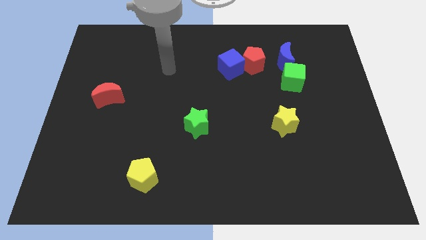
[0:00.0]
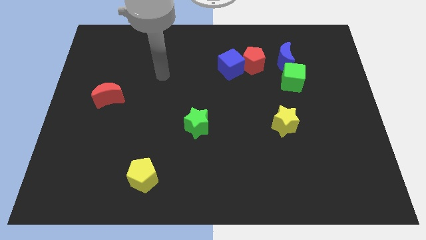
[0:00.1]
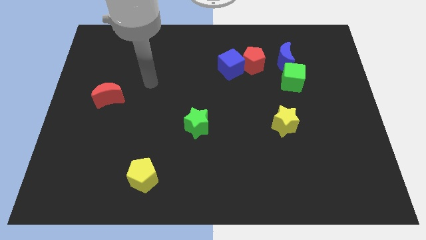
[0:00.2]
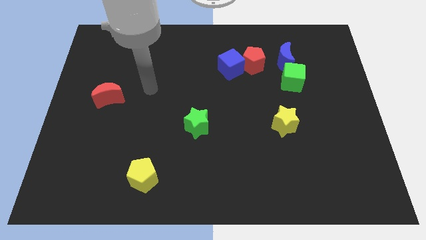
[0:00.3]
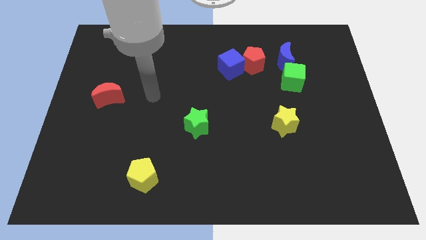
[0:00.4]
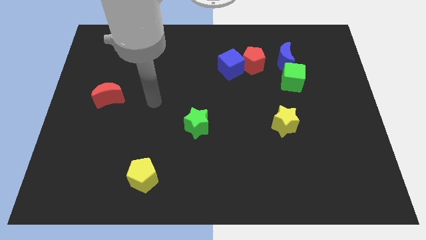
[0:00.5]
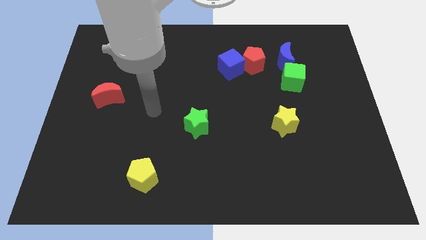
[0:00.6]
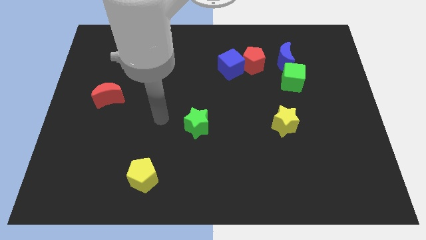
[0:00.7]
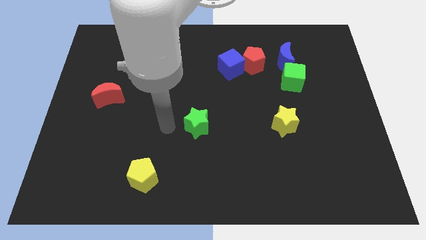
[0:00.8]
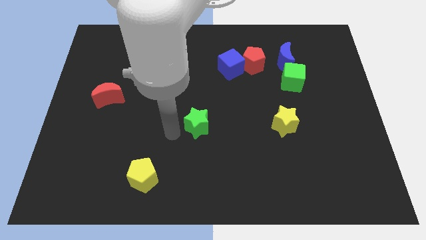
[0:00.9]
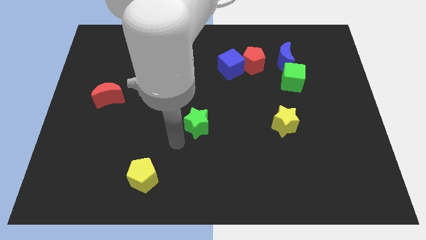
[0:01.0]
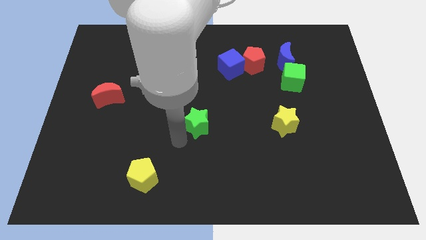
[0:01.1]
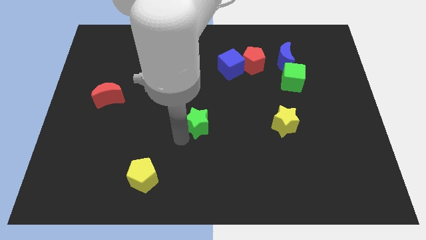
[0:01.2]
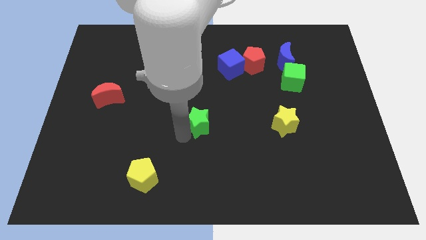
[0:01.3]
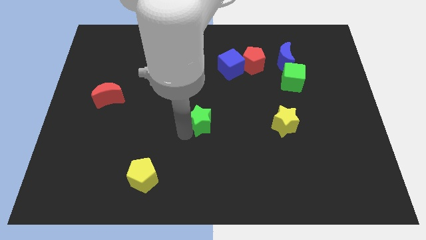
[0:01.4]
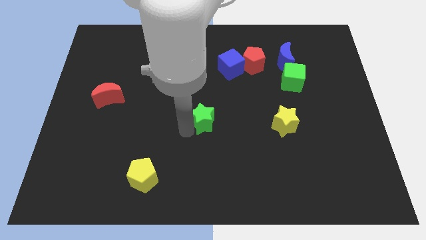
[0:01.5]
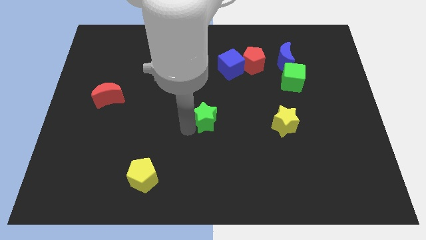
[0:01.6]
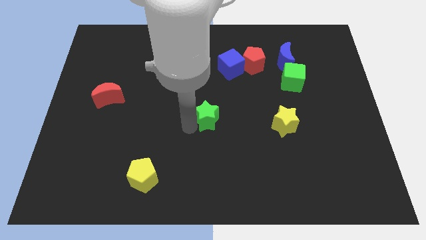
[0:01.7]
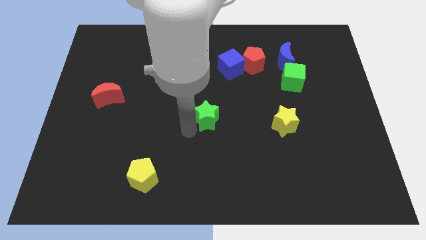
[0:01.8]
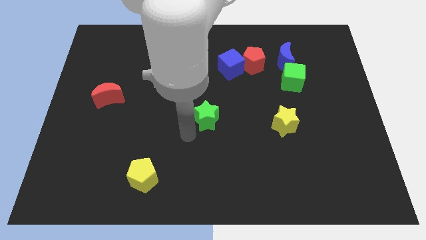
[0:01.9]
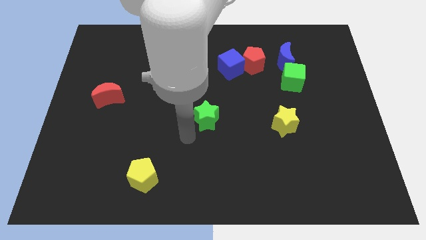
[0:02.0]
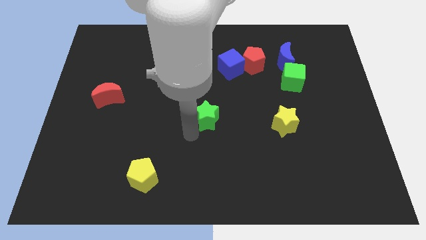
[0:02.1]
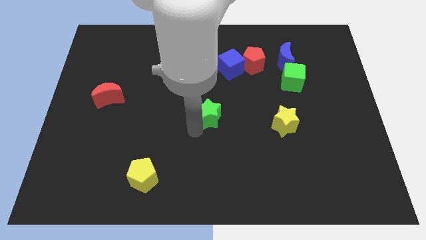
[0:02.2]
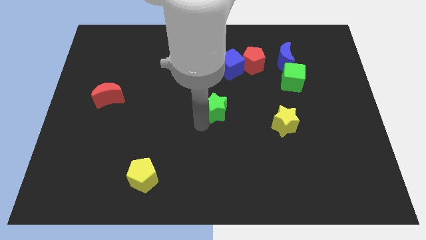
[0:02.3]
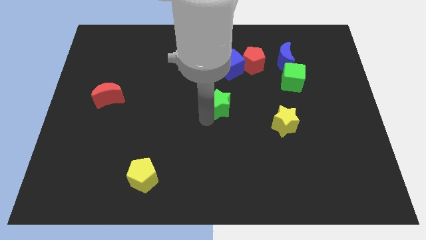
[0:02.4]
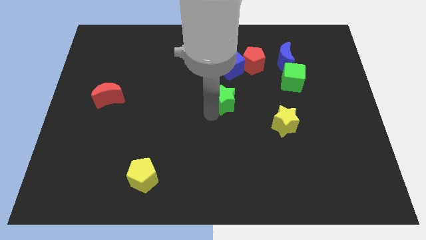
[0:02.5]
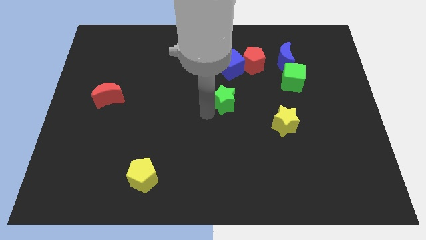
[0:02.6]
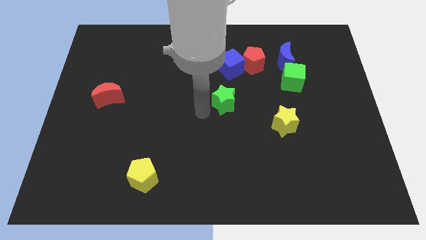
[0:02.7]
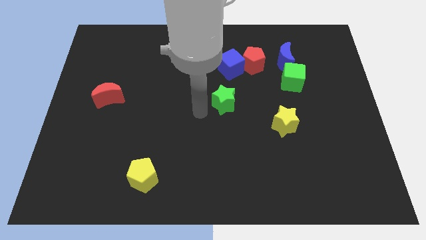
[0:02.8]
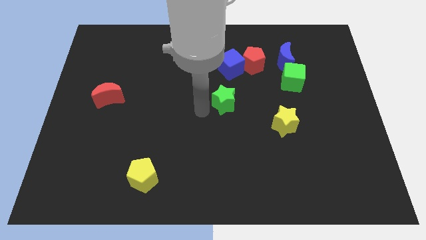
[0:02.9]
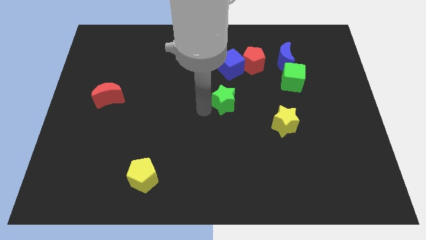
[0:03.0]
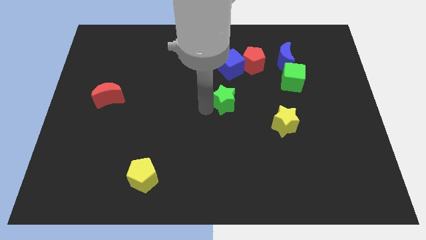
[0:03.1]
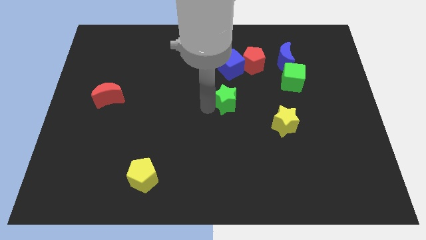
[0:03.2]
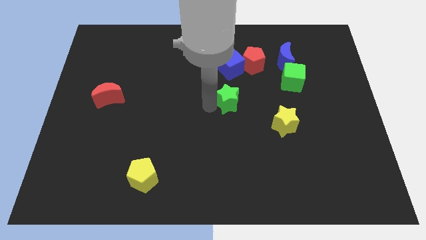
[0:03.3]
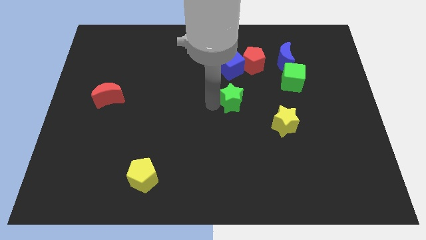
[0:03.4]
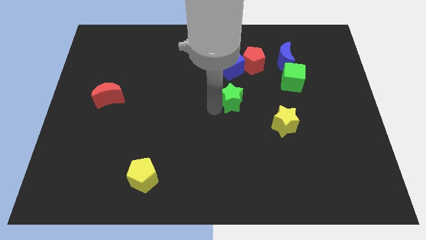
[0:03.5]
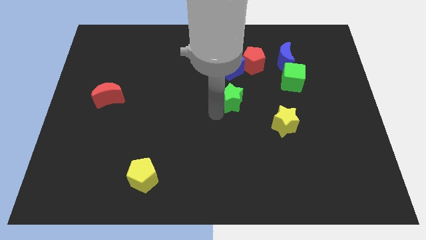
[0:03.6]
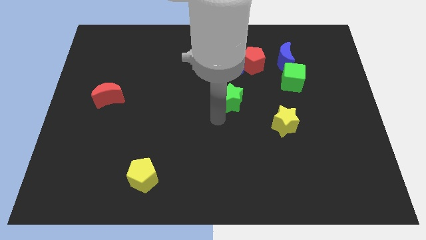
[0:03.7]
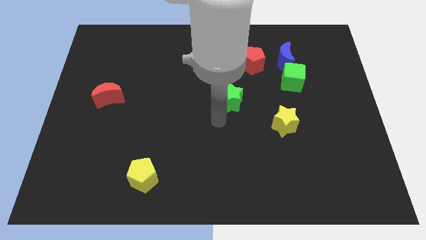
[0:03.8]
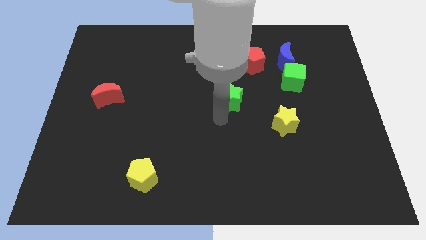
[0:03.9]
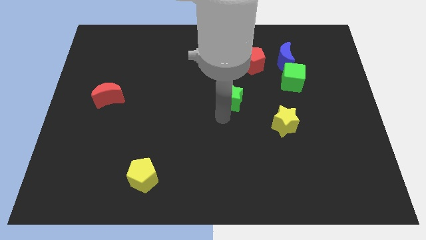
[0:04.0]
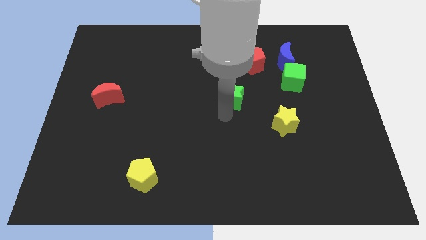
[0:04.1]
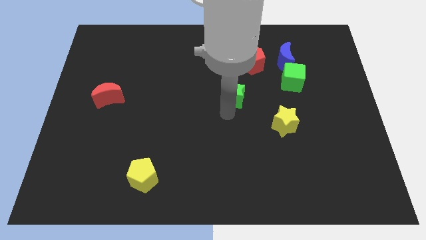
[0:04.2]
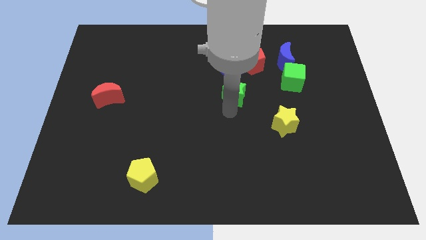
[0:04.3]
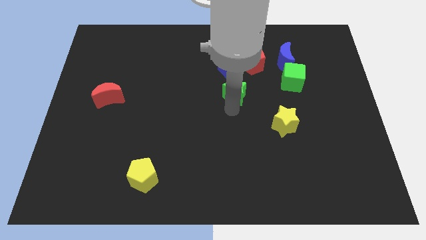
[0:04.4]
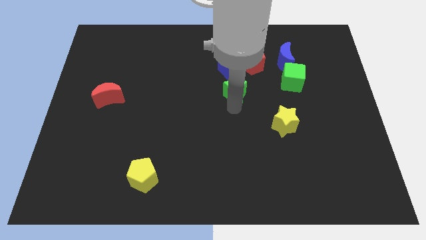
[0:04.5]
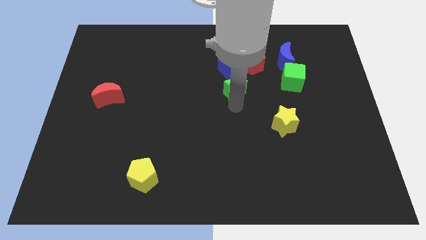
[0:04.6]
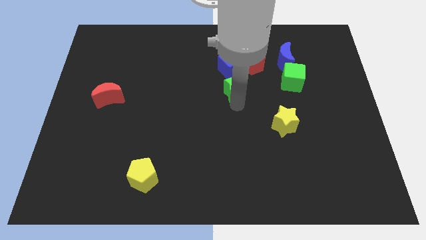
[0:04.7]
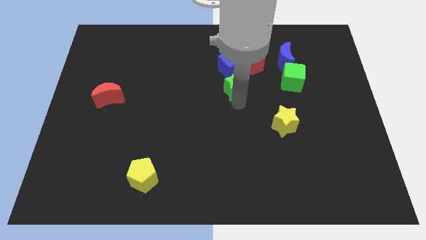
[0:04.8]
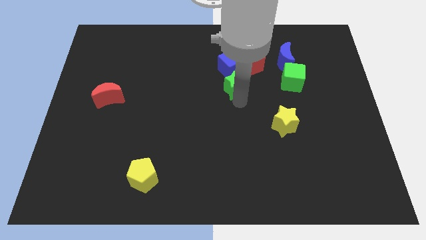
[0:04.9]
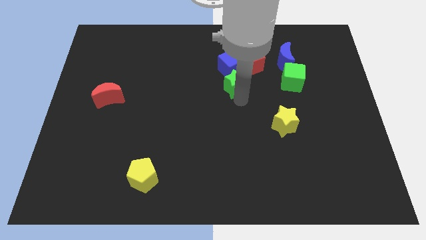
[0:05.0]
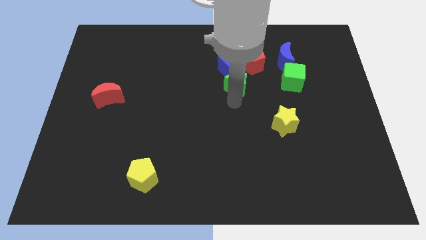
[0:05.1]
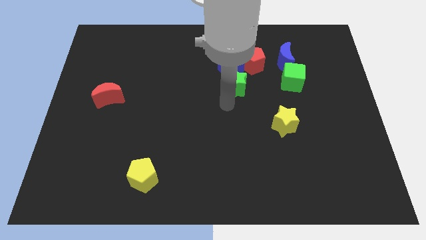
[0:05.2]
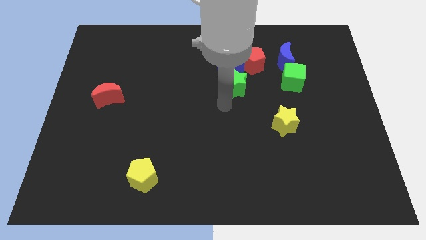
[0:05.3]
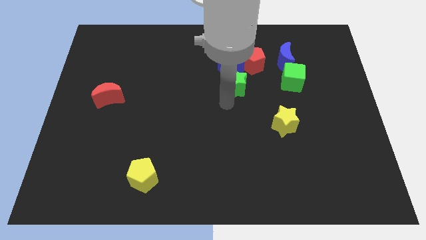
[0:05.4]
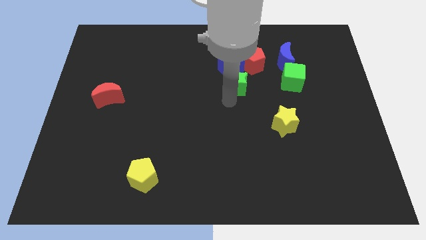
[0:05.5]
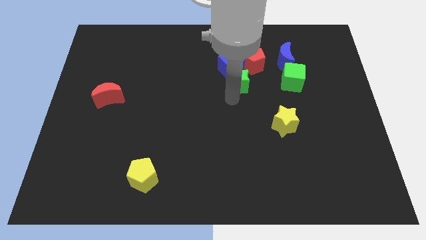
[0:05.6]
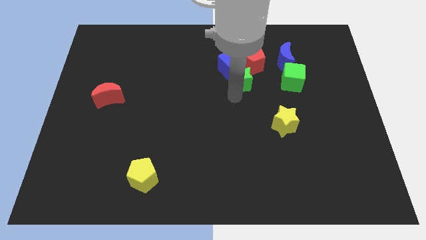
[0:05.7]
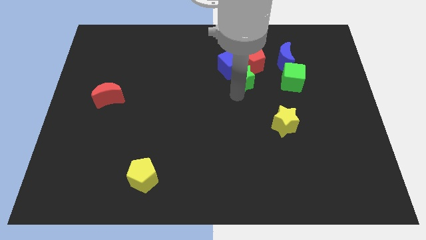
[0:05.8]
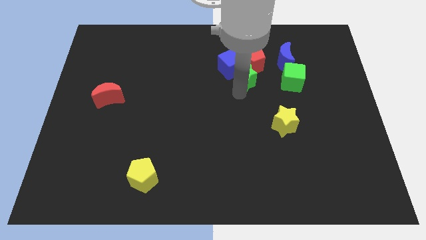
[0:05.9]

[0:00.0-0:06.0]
move the green star next to the red pentagon

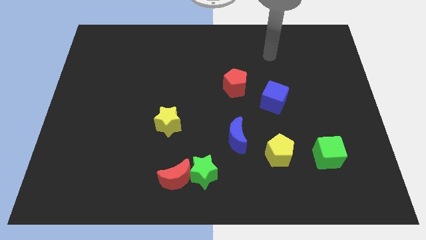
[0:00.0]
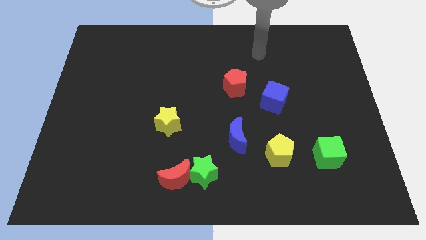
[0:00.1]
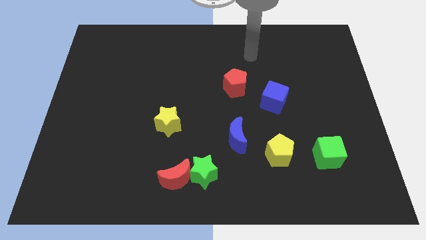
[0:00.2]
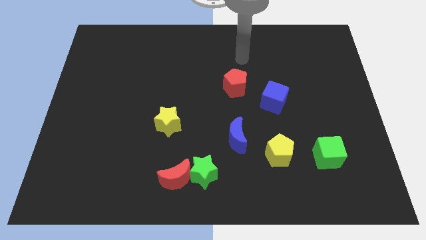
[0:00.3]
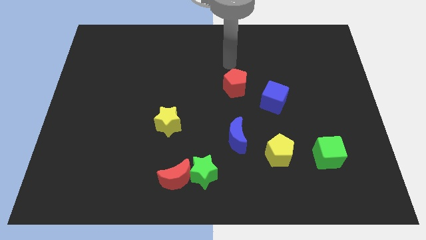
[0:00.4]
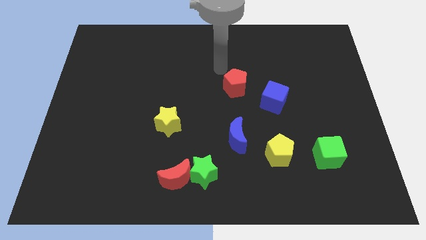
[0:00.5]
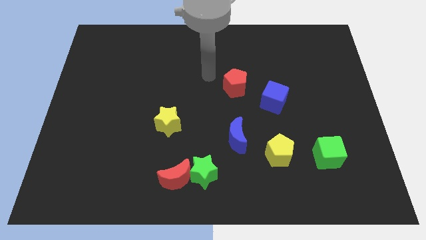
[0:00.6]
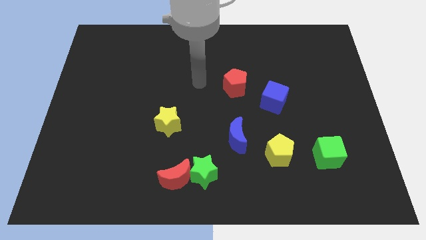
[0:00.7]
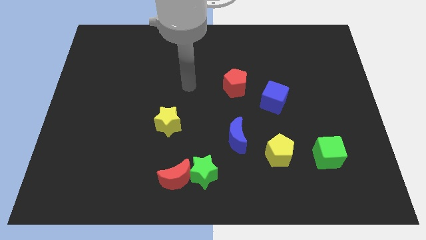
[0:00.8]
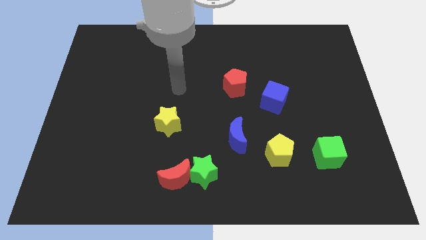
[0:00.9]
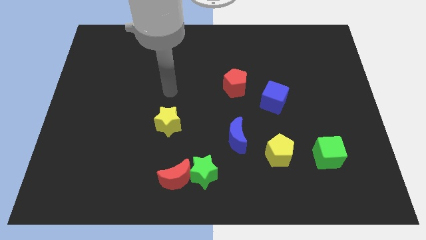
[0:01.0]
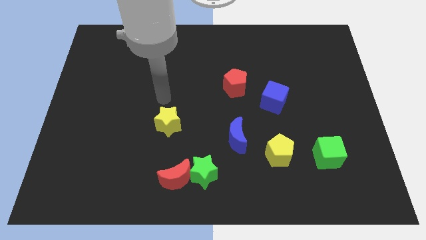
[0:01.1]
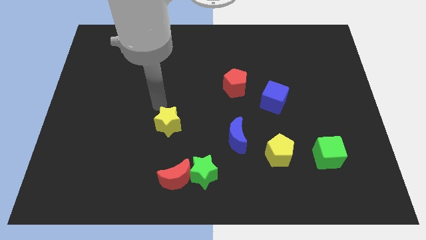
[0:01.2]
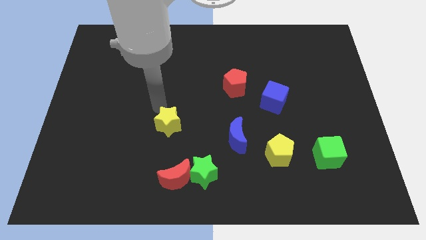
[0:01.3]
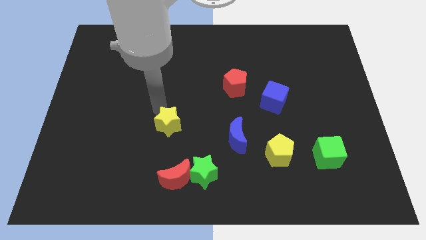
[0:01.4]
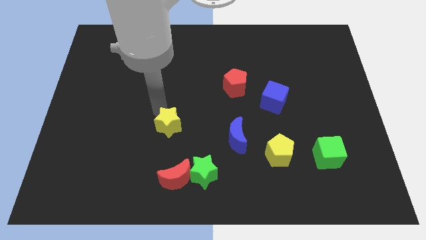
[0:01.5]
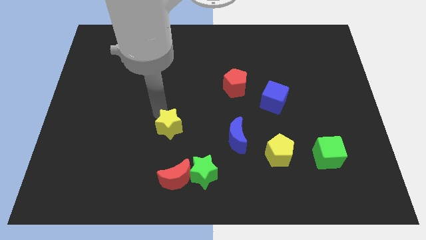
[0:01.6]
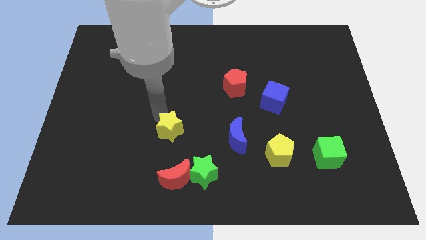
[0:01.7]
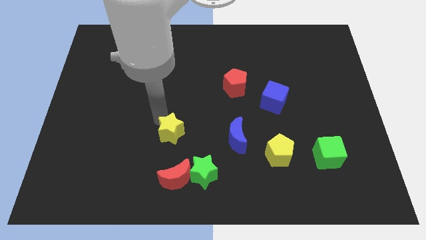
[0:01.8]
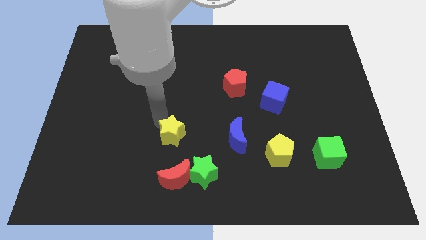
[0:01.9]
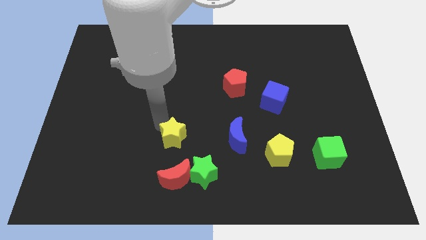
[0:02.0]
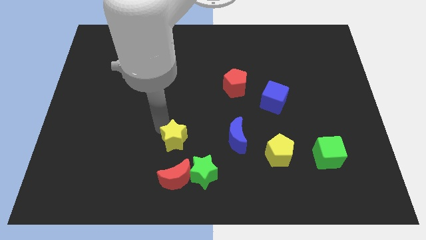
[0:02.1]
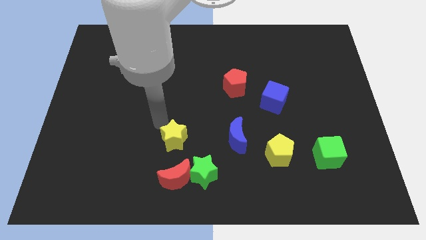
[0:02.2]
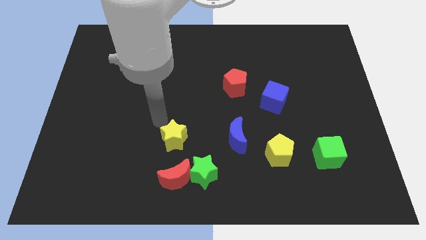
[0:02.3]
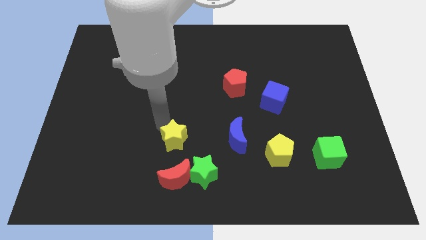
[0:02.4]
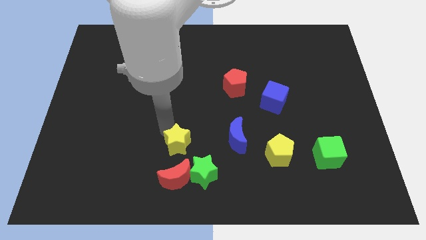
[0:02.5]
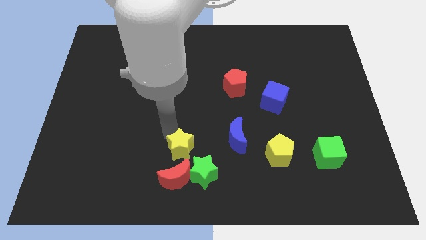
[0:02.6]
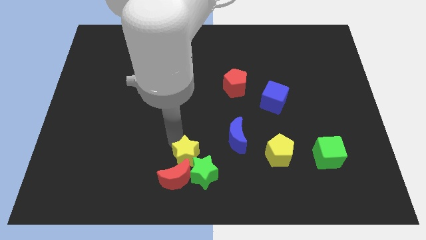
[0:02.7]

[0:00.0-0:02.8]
move the yellow star next to the green star
